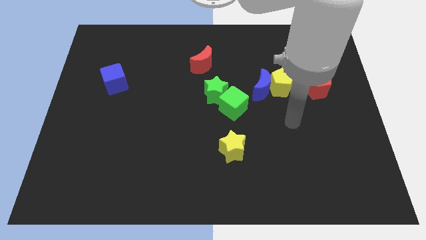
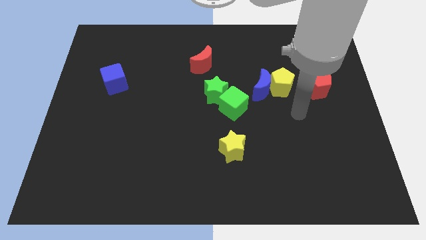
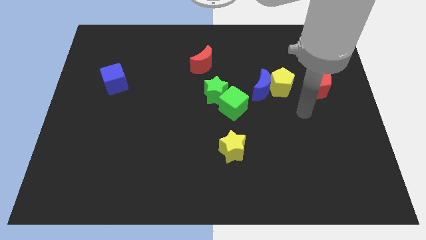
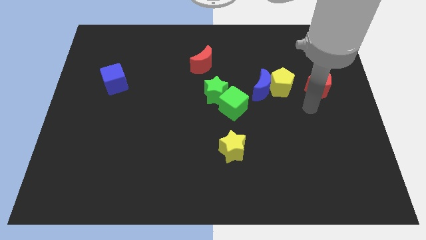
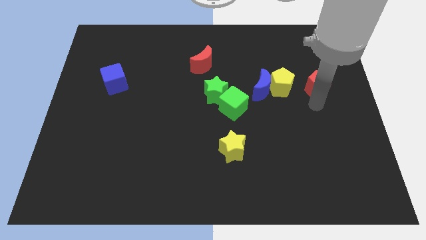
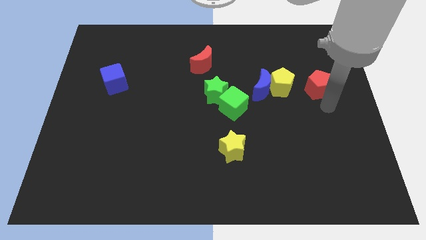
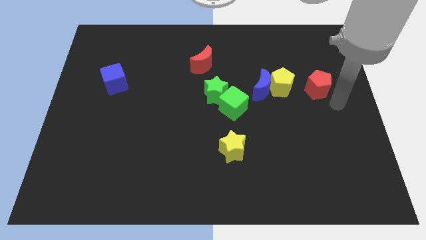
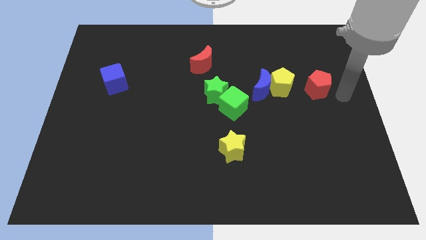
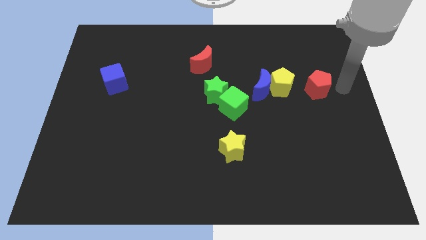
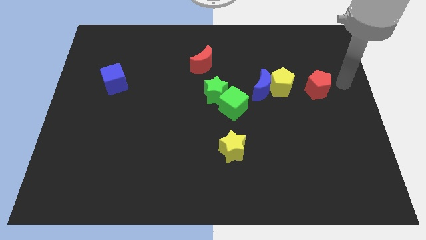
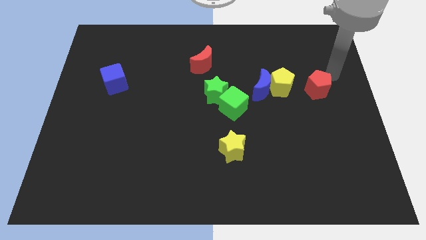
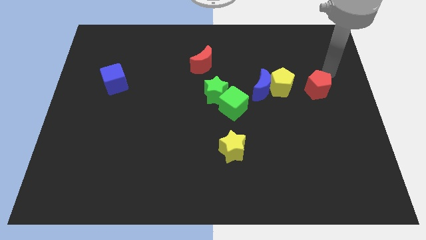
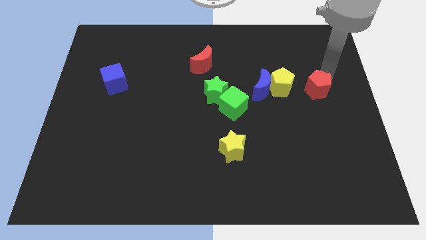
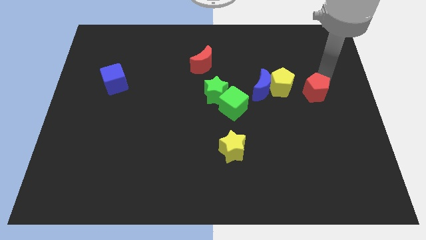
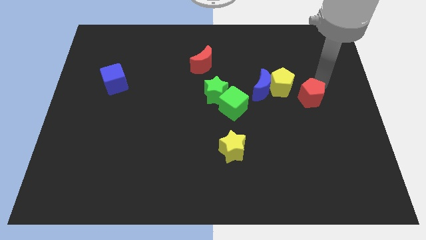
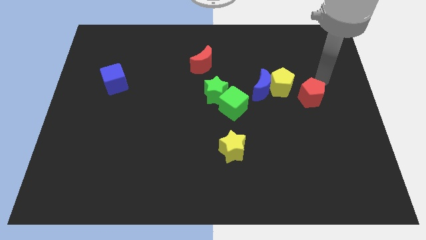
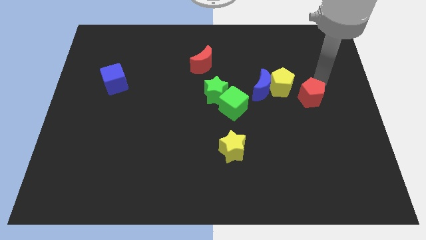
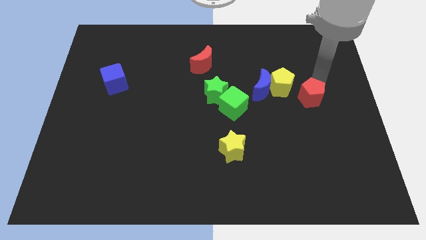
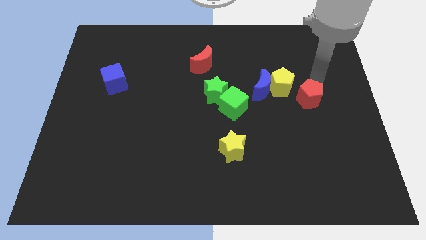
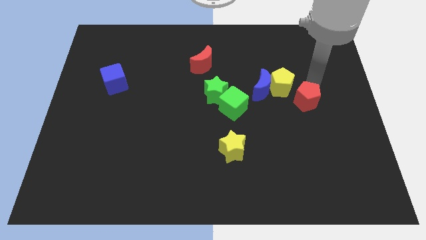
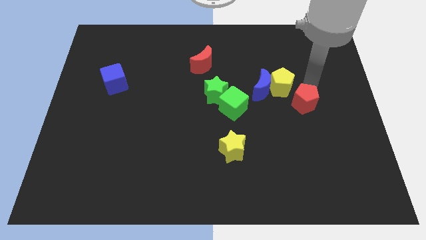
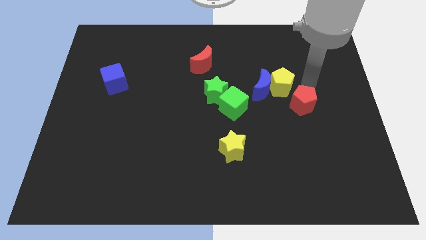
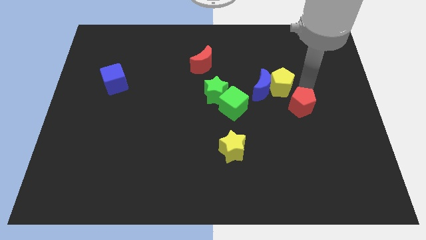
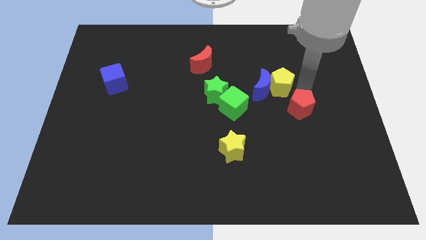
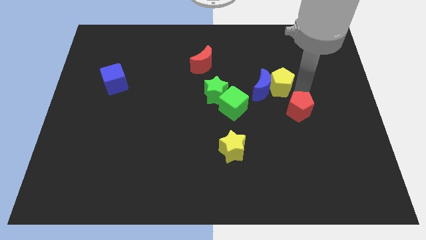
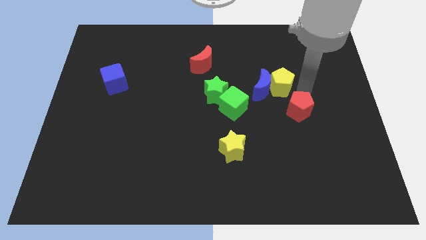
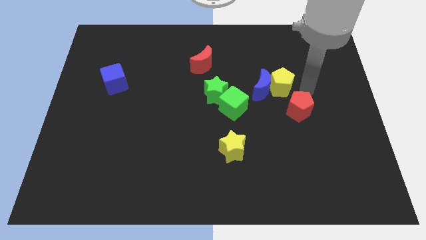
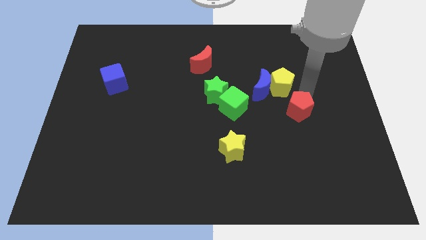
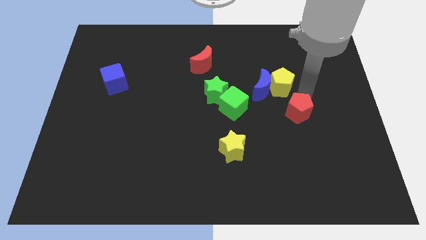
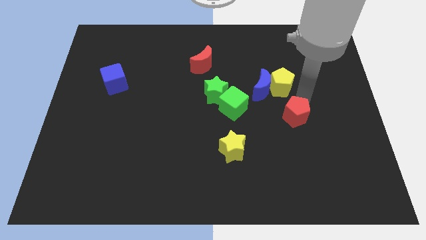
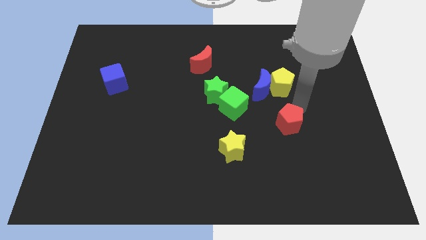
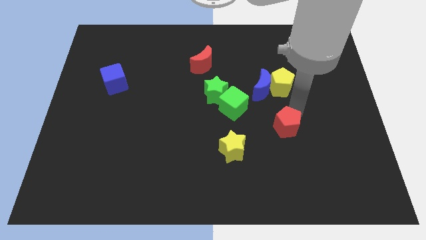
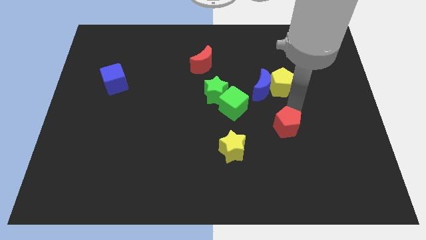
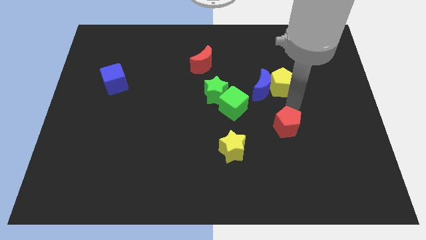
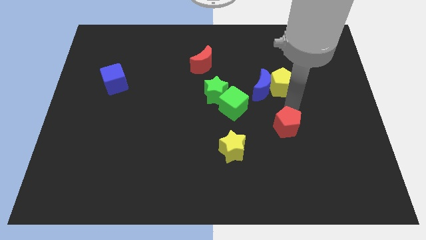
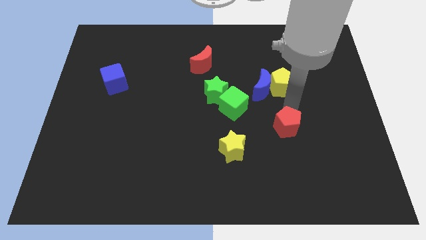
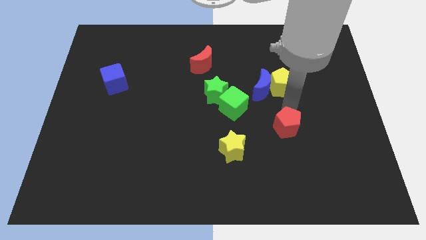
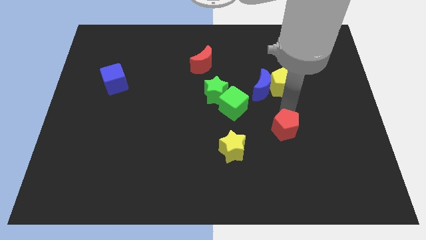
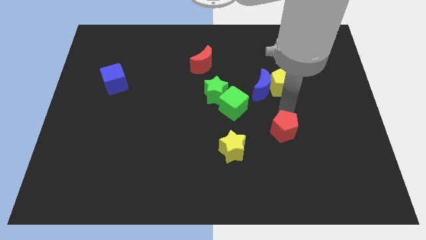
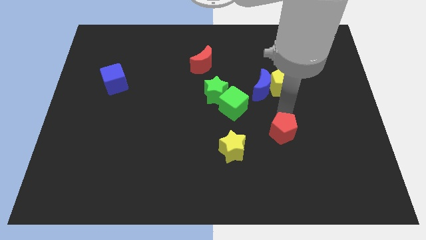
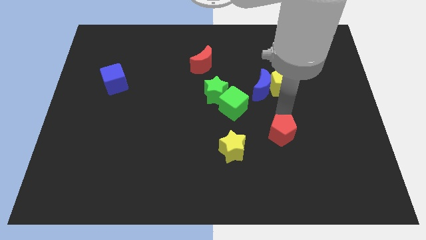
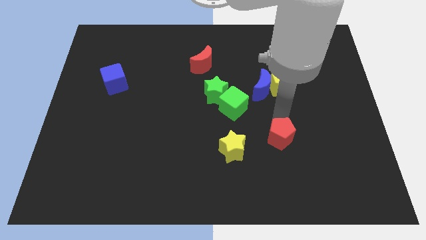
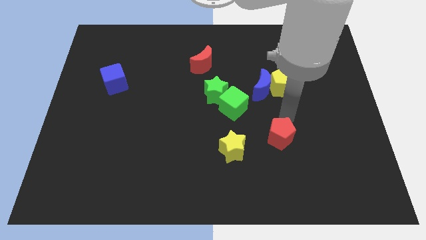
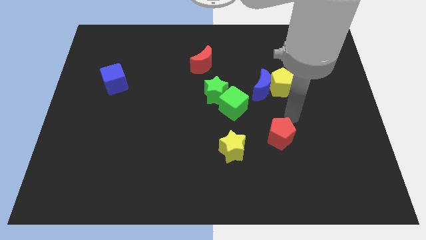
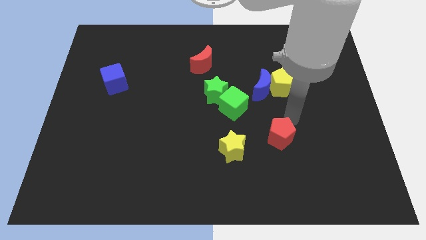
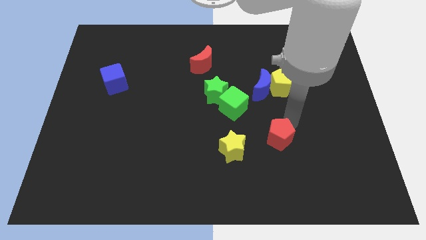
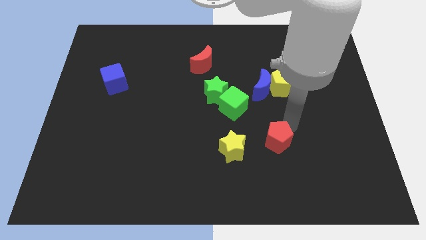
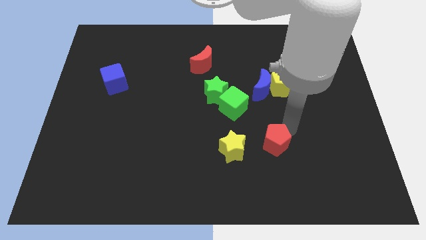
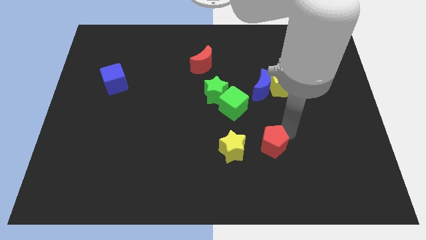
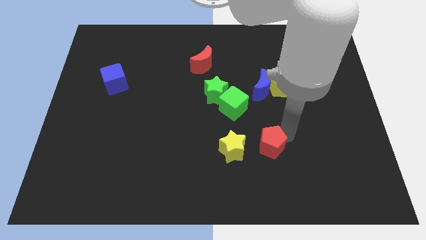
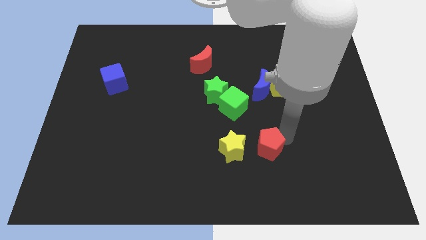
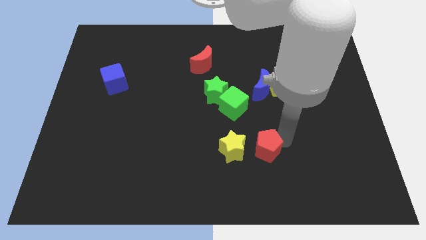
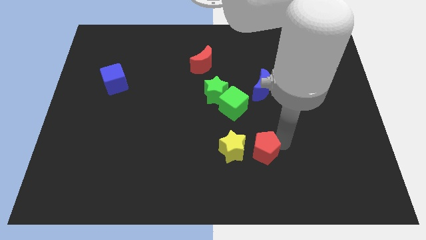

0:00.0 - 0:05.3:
put the red pentagon to the bottom right of the yellow star

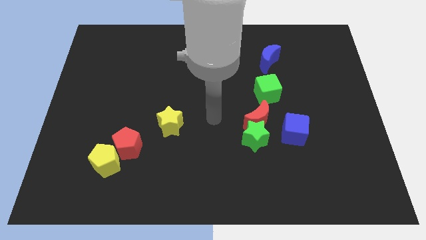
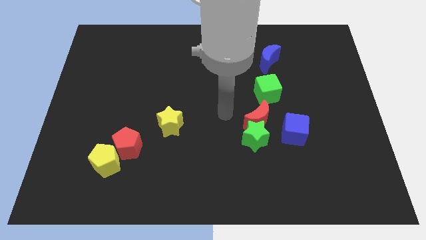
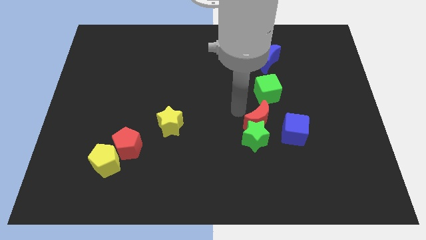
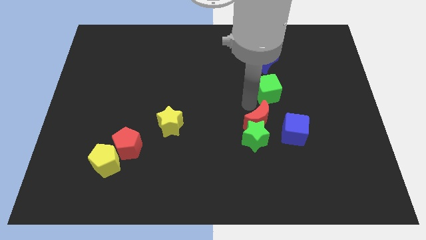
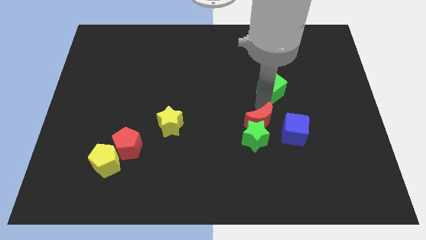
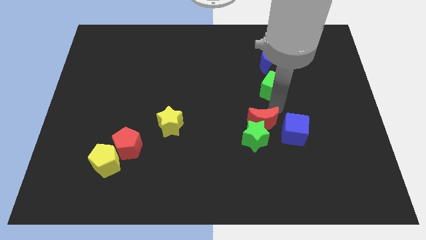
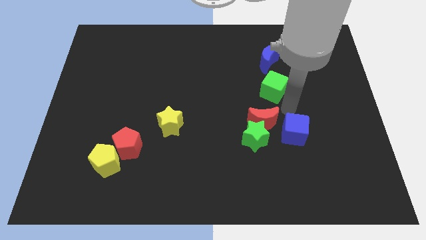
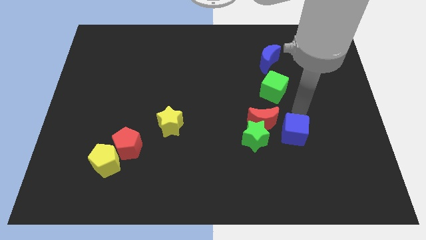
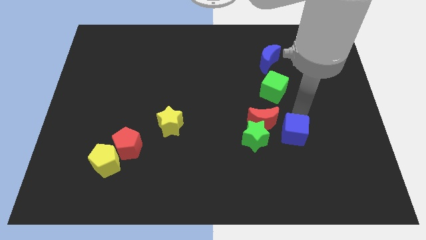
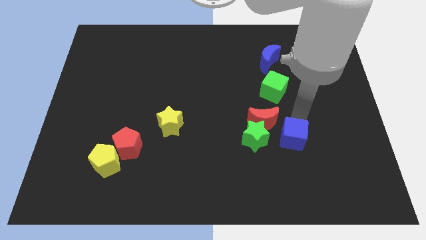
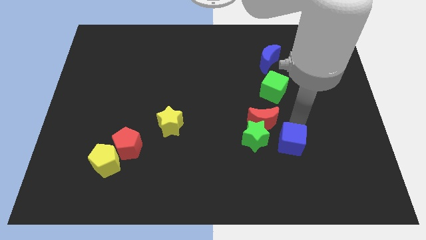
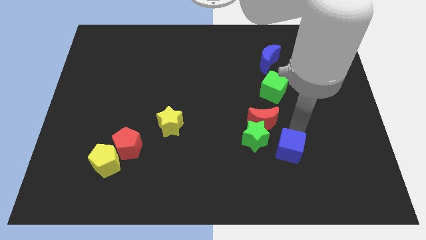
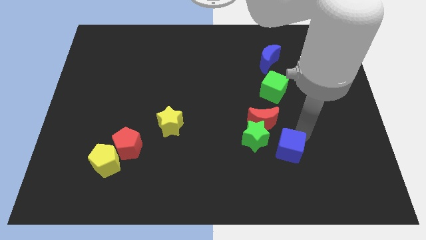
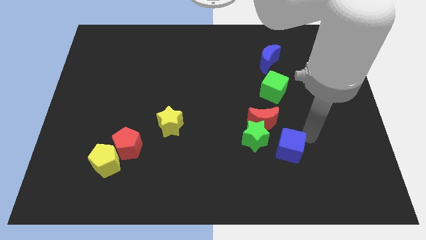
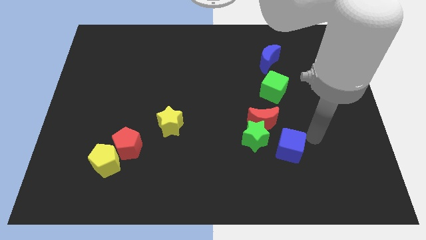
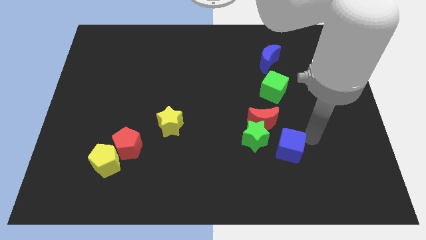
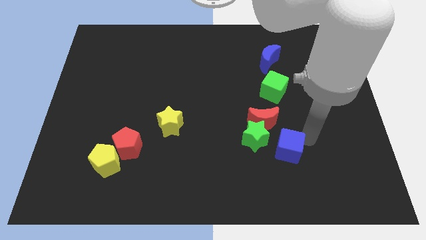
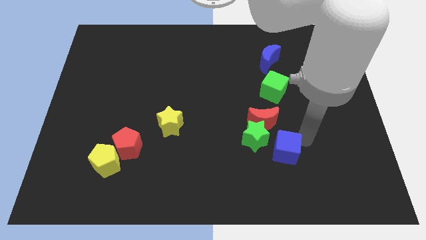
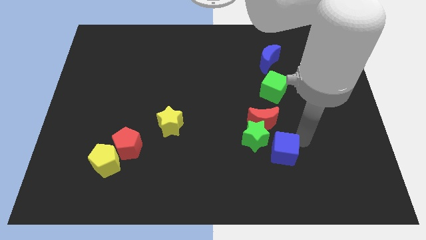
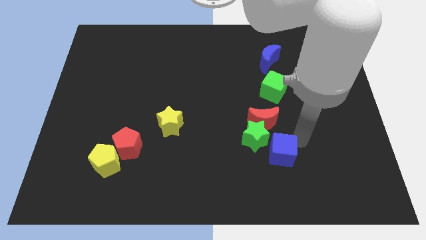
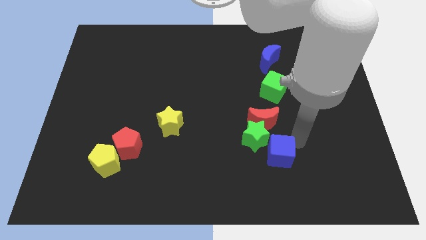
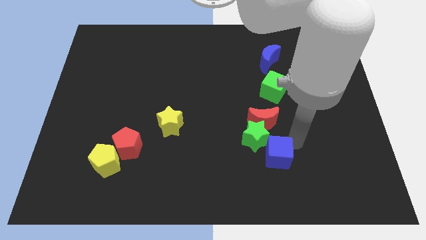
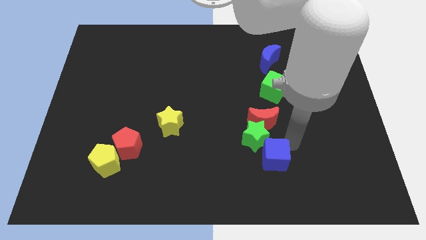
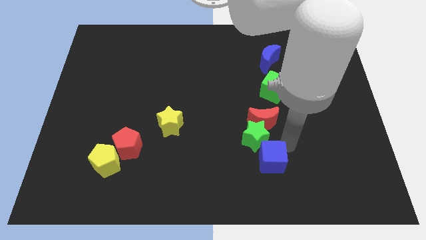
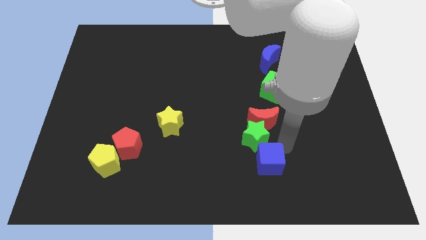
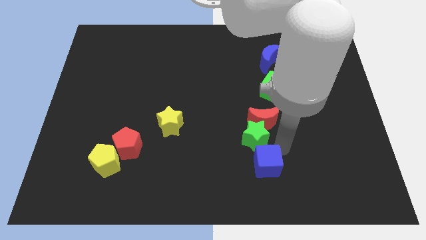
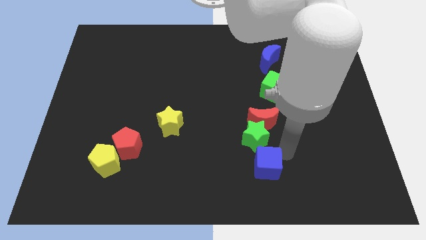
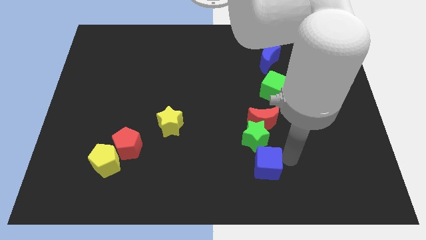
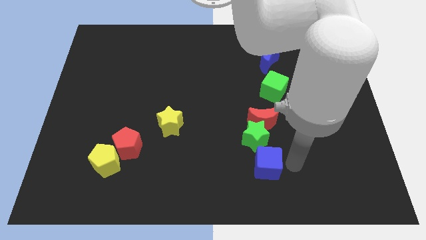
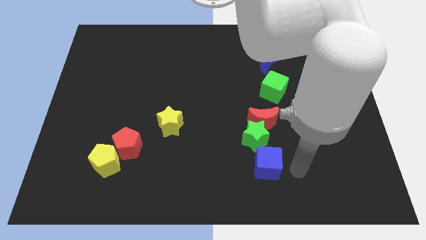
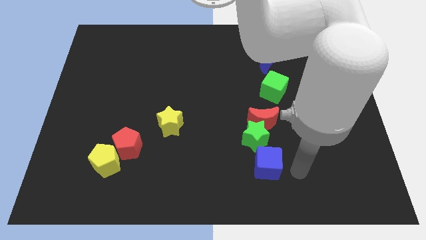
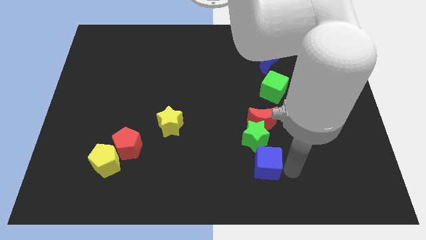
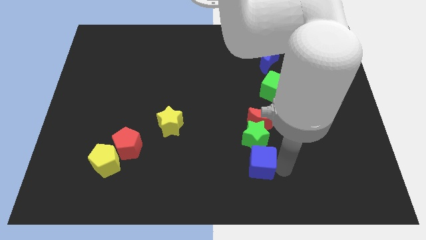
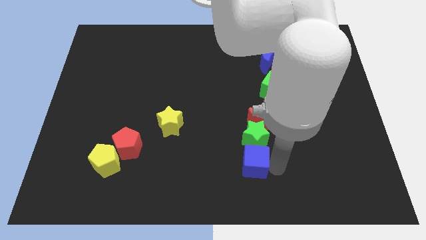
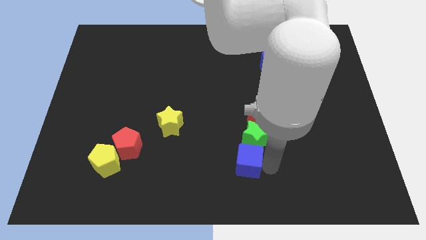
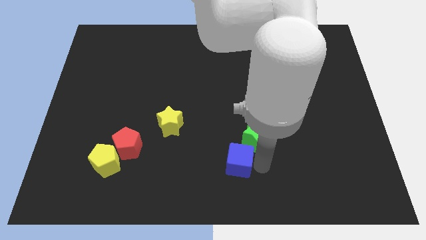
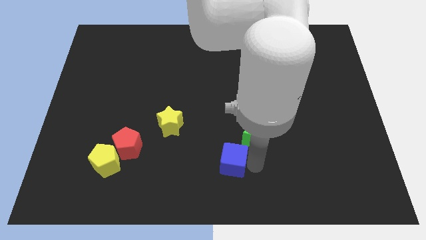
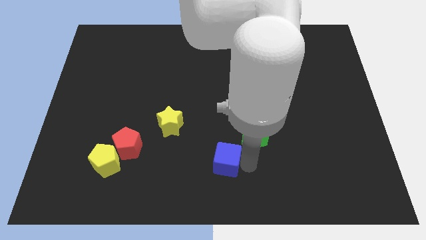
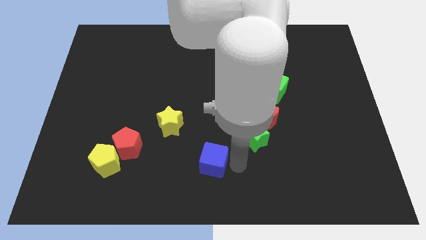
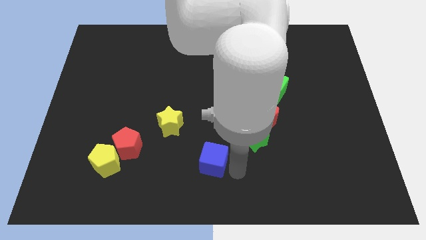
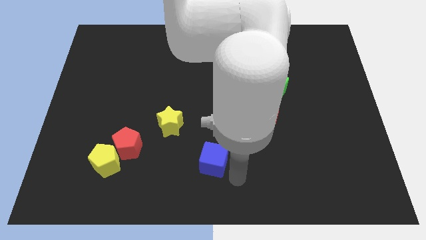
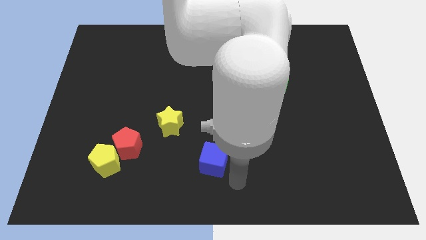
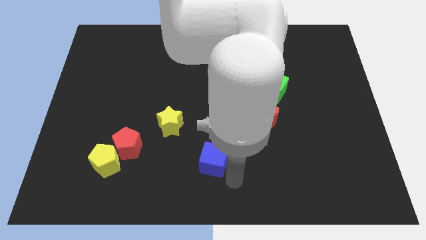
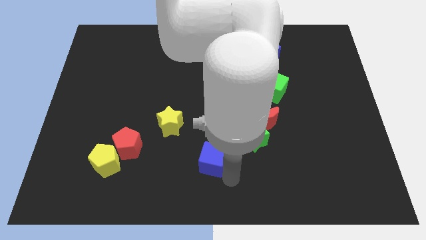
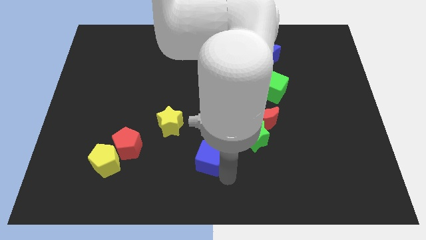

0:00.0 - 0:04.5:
push the blue cube diagonally down and to the right of the yellow star
